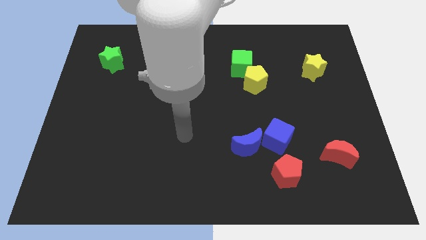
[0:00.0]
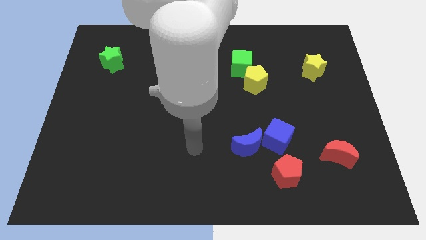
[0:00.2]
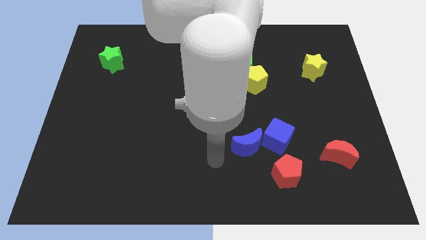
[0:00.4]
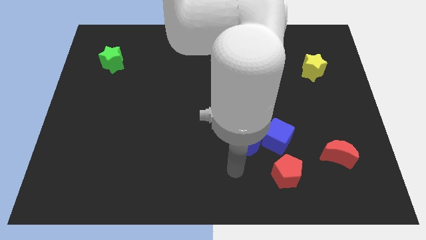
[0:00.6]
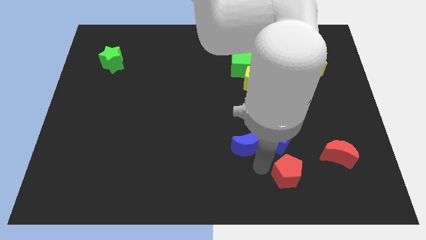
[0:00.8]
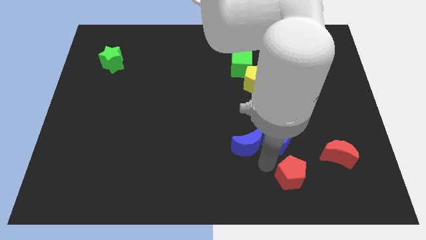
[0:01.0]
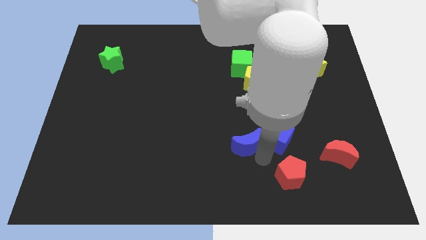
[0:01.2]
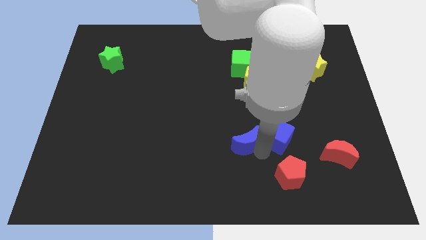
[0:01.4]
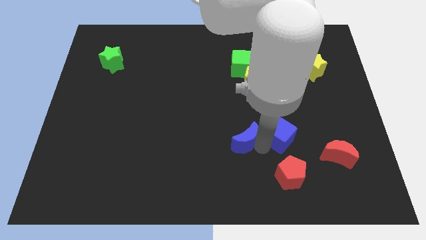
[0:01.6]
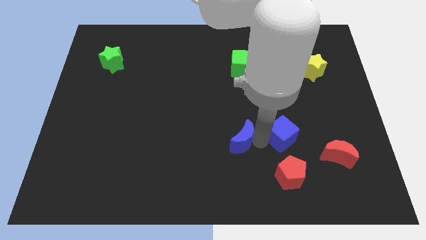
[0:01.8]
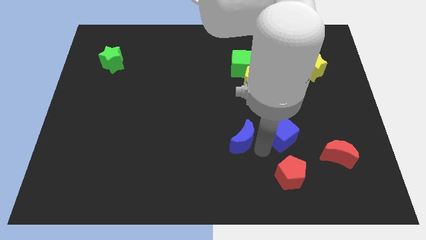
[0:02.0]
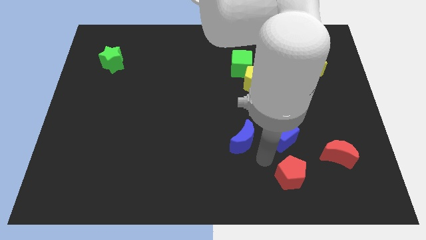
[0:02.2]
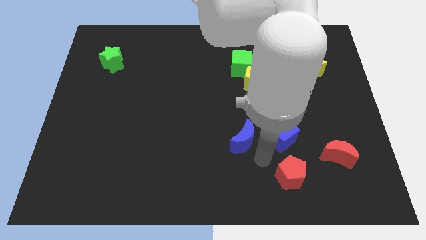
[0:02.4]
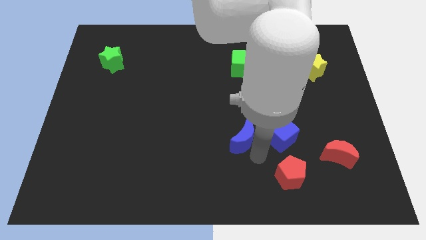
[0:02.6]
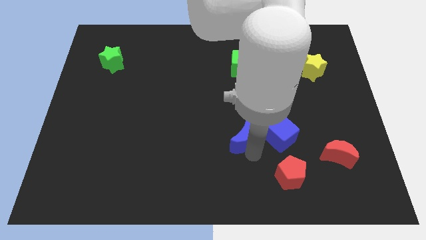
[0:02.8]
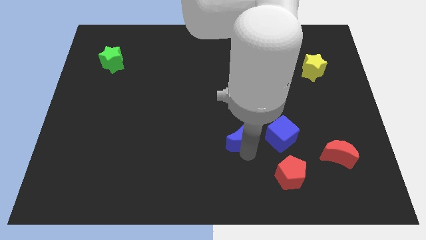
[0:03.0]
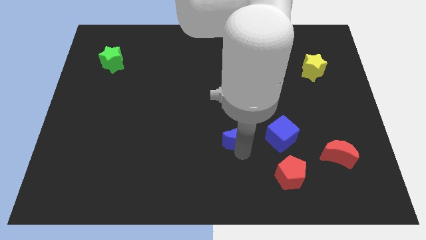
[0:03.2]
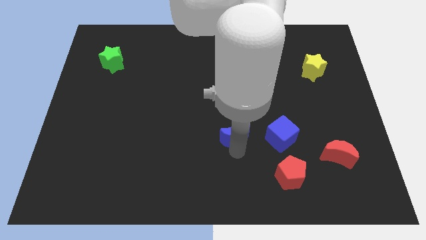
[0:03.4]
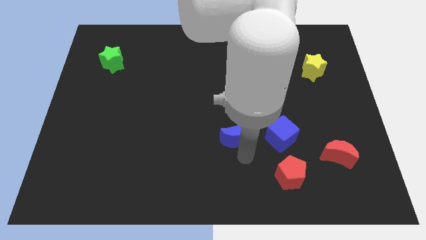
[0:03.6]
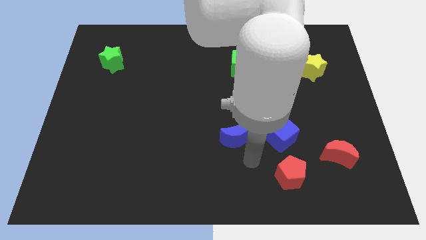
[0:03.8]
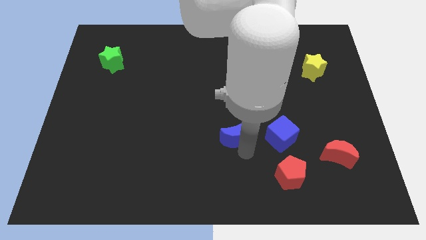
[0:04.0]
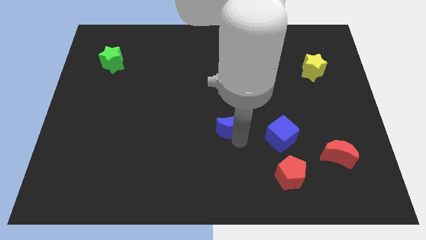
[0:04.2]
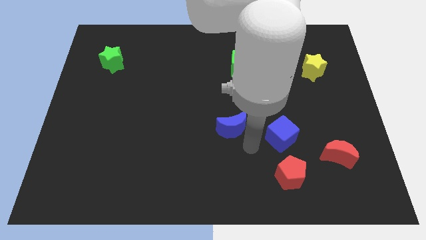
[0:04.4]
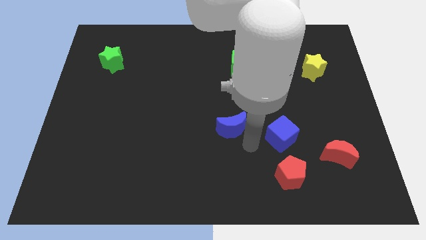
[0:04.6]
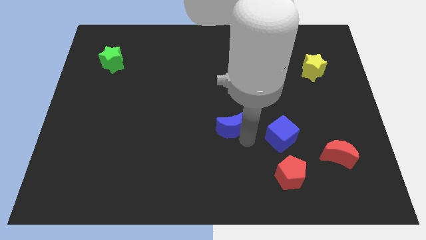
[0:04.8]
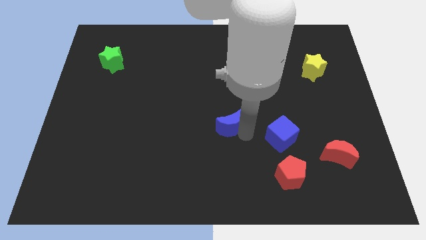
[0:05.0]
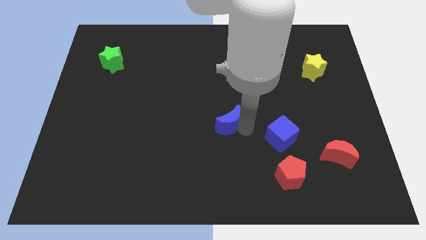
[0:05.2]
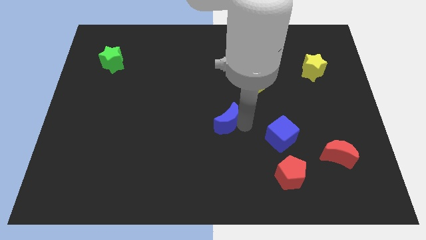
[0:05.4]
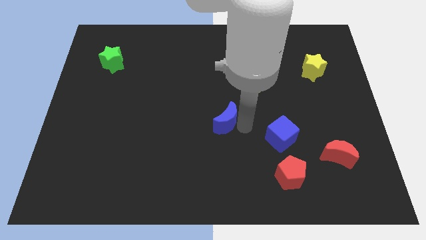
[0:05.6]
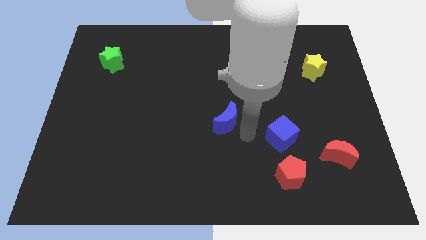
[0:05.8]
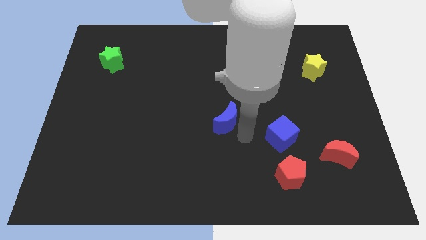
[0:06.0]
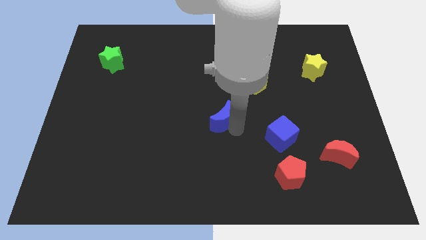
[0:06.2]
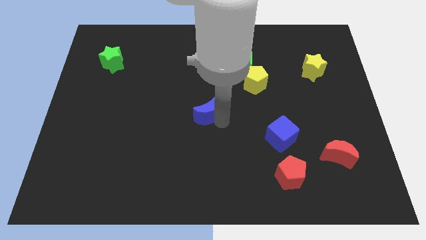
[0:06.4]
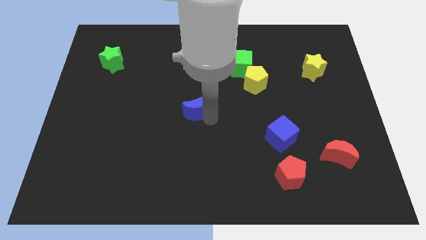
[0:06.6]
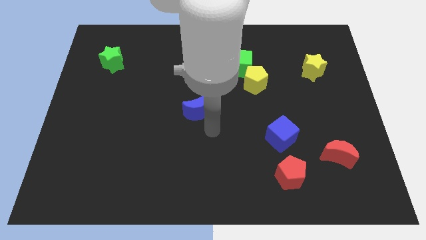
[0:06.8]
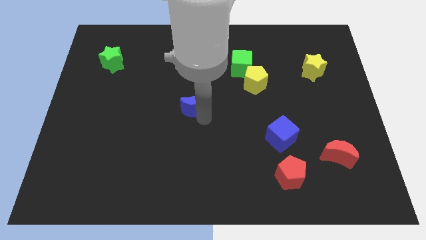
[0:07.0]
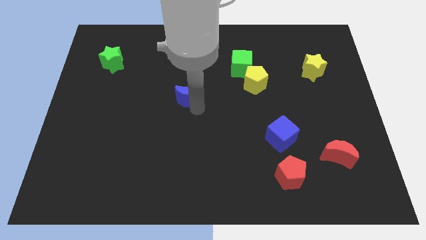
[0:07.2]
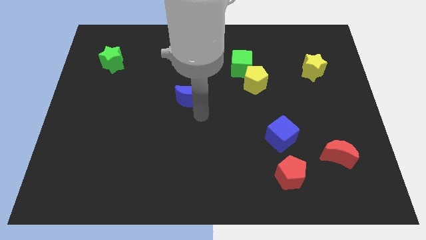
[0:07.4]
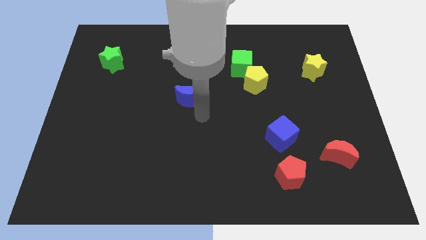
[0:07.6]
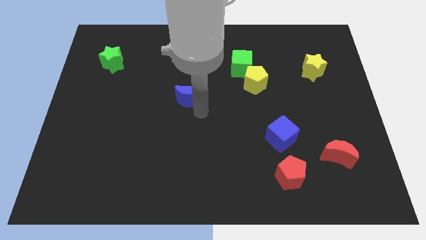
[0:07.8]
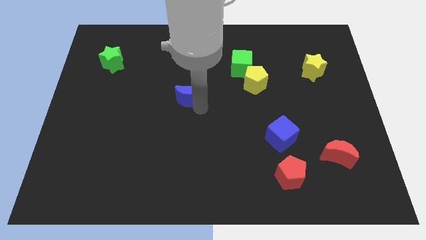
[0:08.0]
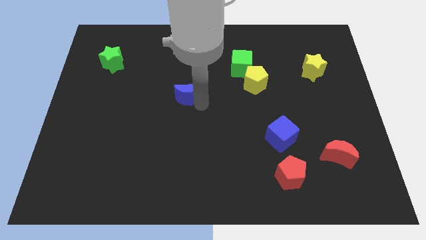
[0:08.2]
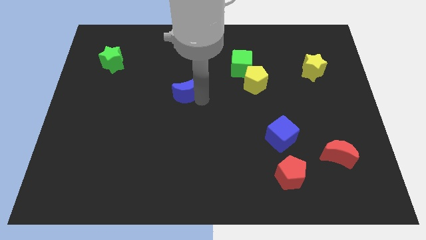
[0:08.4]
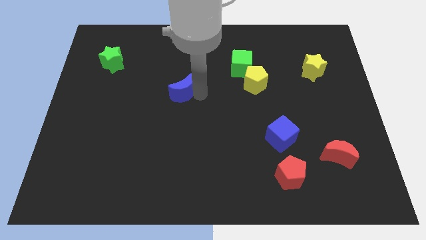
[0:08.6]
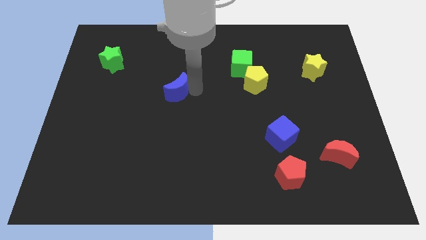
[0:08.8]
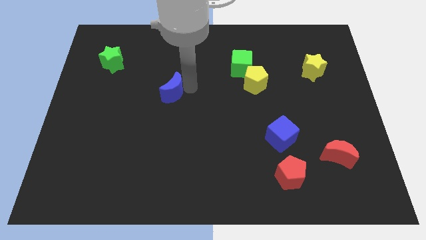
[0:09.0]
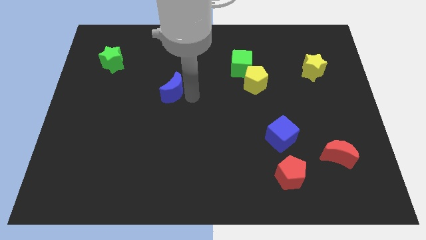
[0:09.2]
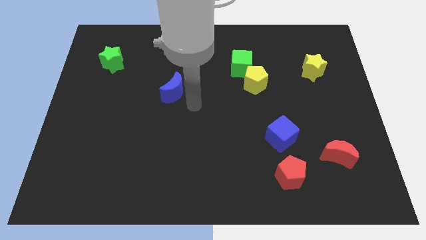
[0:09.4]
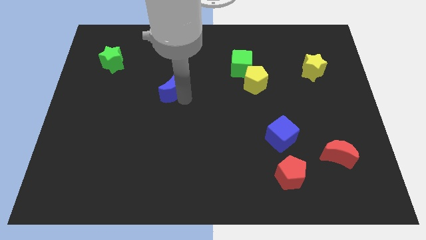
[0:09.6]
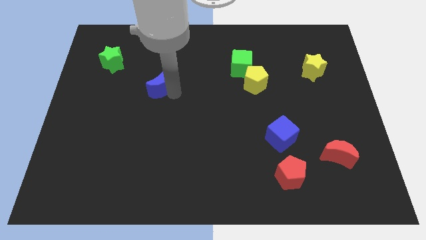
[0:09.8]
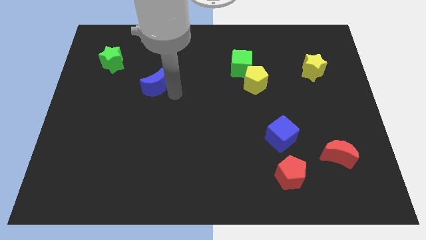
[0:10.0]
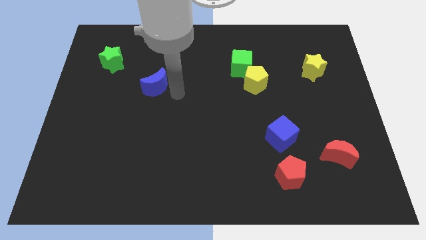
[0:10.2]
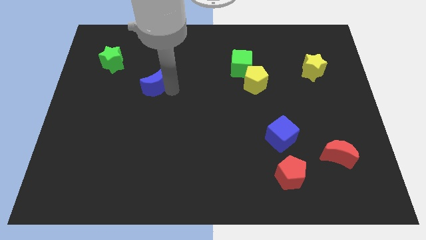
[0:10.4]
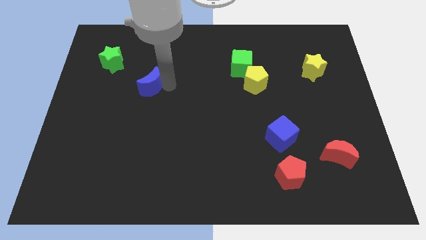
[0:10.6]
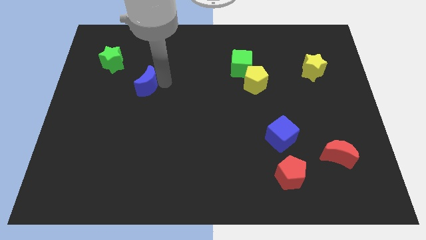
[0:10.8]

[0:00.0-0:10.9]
move the blue moon to the bottom right of the green star

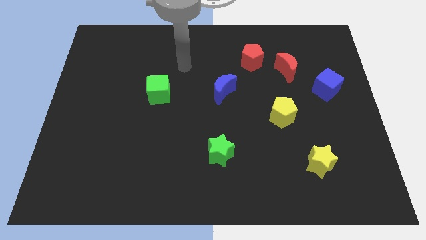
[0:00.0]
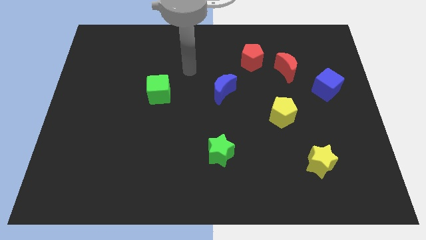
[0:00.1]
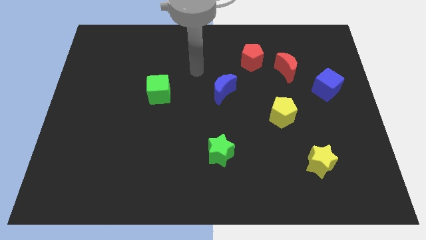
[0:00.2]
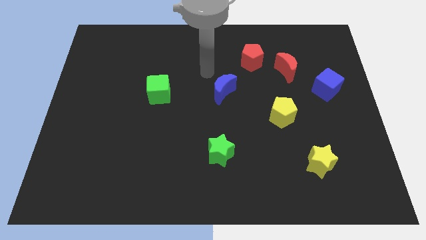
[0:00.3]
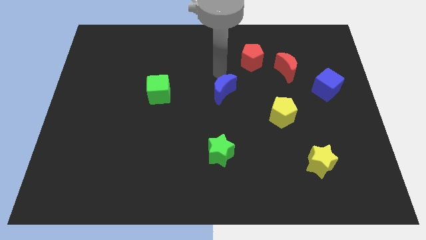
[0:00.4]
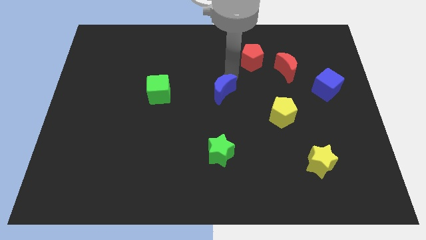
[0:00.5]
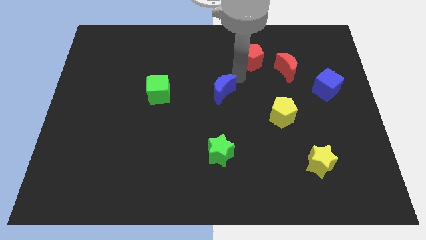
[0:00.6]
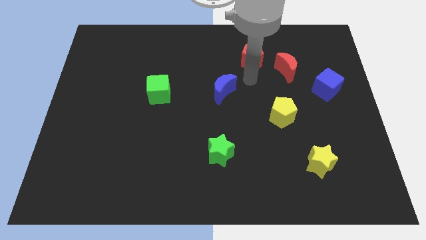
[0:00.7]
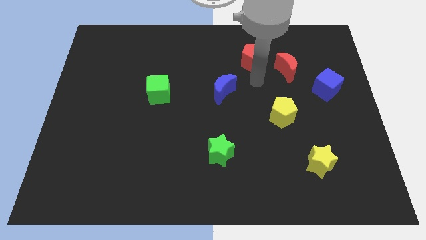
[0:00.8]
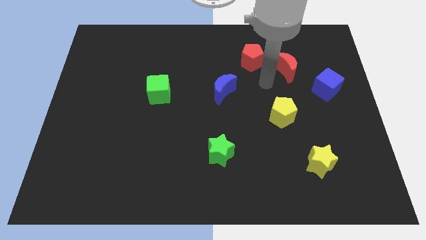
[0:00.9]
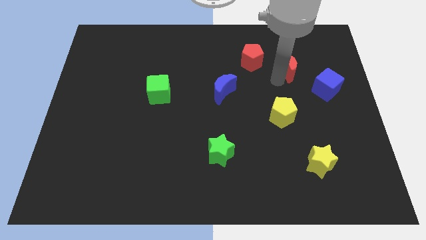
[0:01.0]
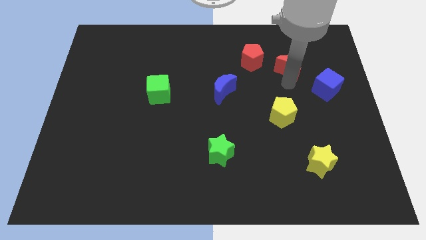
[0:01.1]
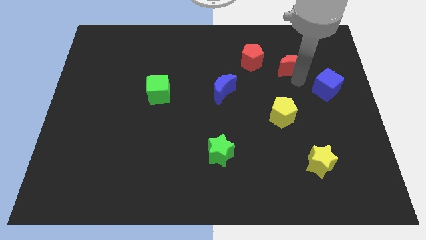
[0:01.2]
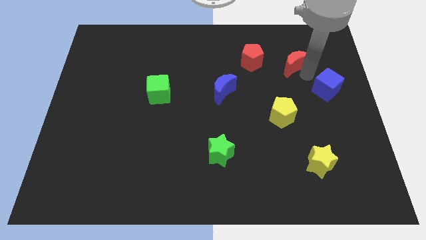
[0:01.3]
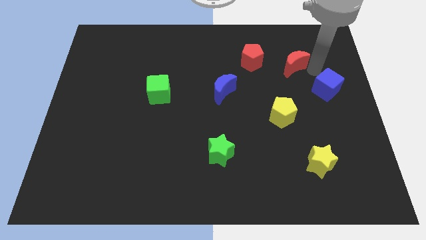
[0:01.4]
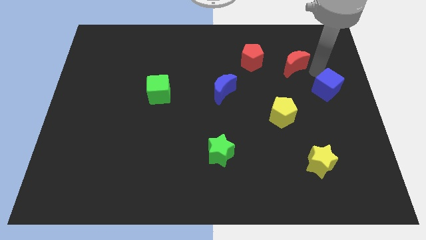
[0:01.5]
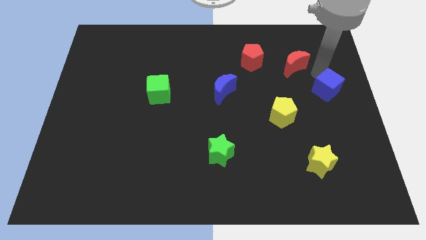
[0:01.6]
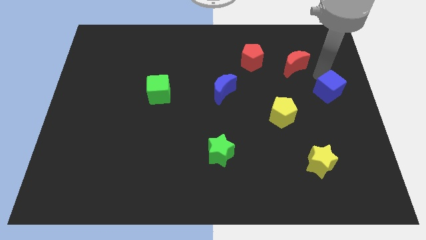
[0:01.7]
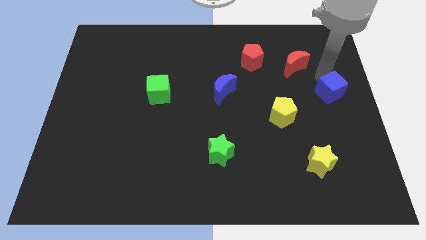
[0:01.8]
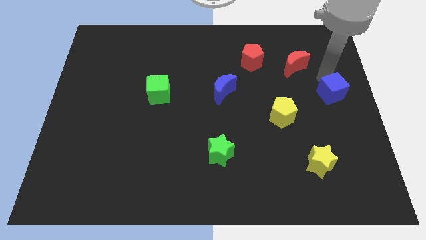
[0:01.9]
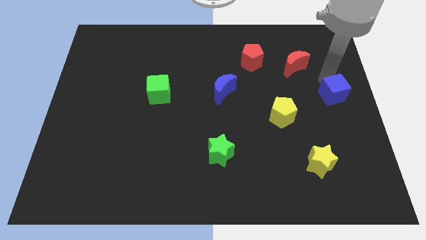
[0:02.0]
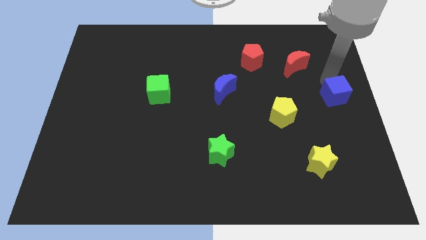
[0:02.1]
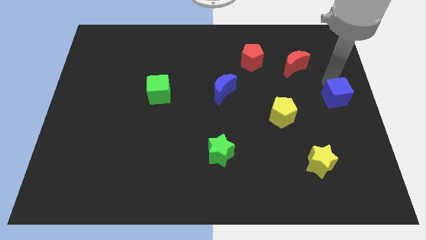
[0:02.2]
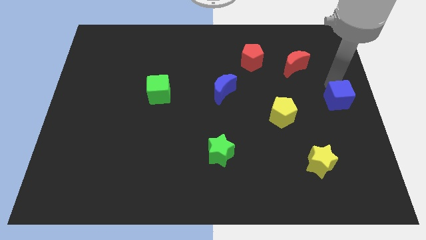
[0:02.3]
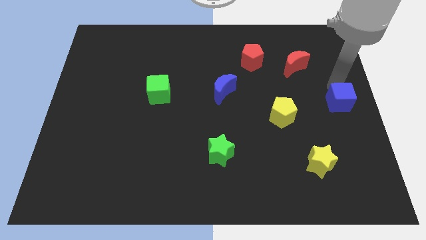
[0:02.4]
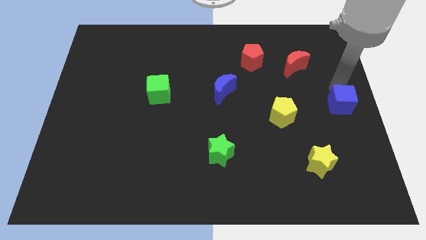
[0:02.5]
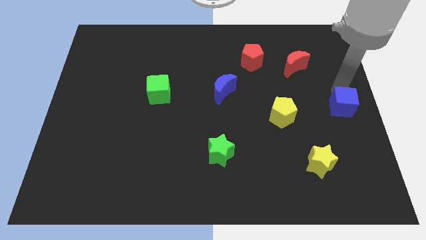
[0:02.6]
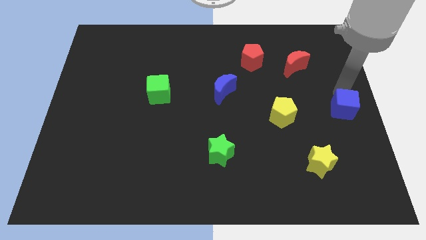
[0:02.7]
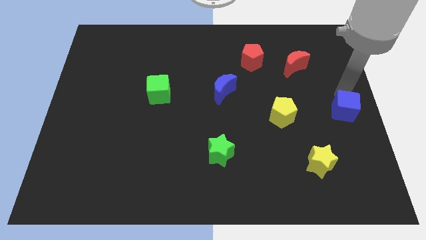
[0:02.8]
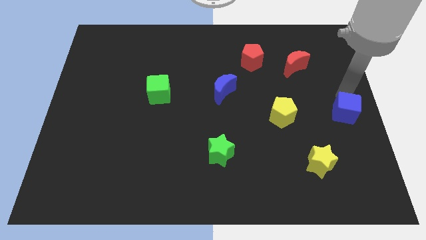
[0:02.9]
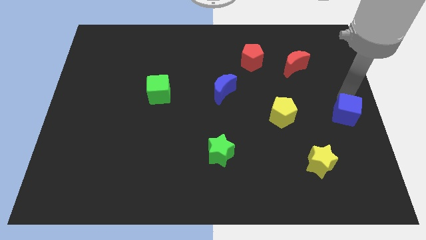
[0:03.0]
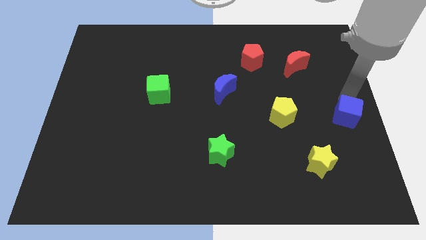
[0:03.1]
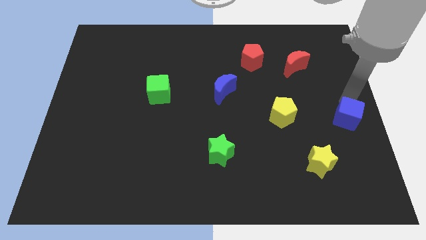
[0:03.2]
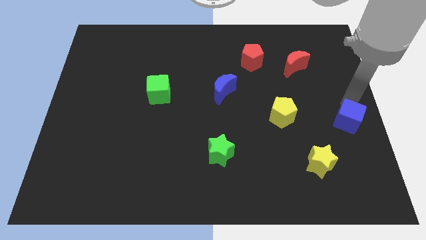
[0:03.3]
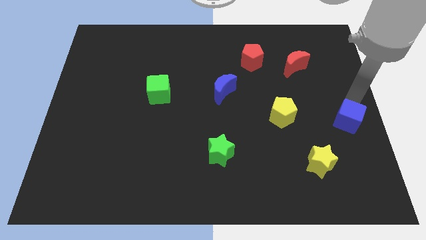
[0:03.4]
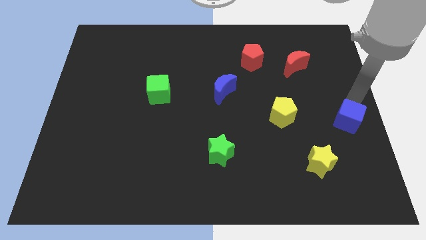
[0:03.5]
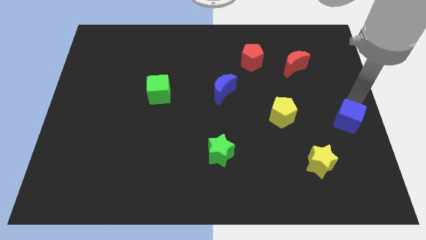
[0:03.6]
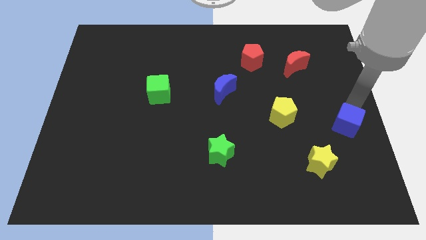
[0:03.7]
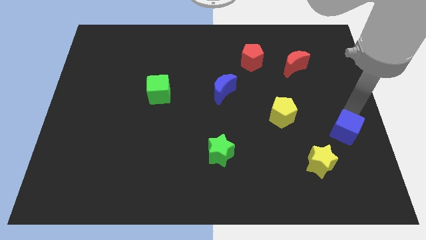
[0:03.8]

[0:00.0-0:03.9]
push the blue cube diagonally up and to the right of the yellow star
